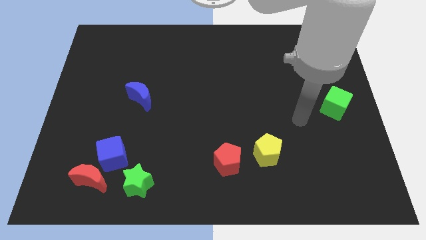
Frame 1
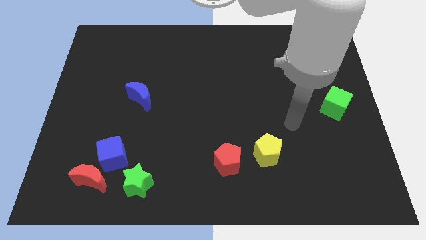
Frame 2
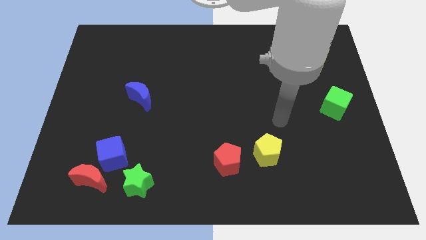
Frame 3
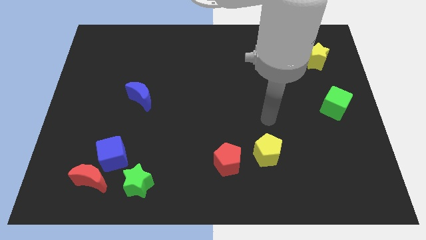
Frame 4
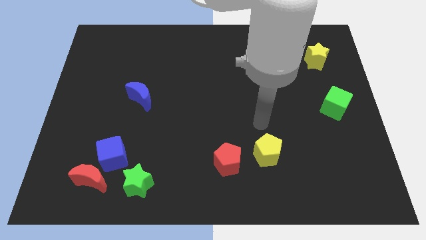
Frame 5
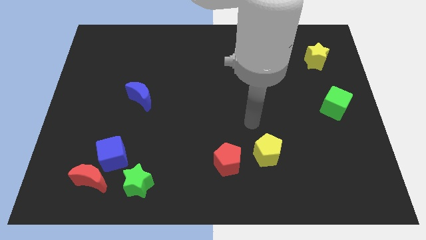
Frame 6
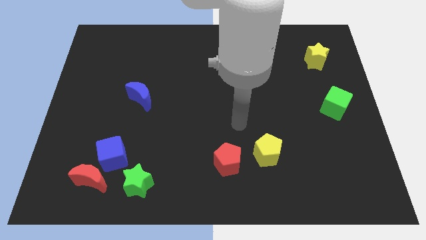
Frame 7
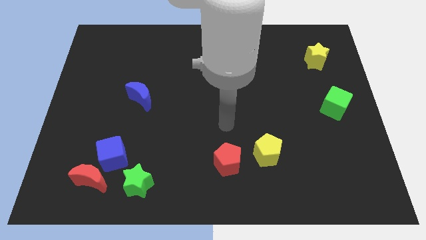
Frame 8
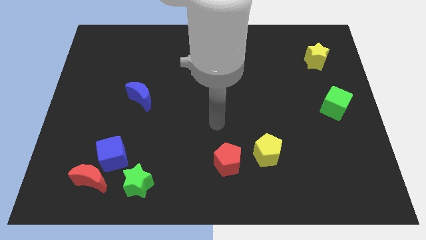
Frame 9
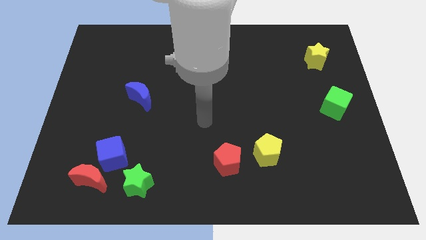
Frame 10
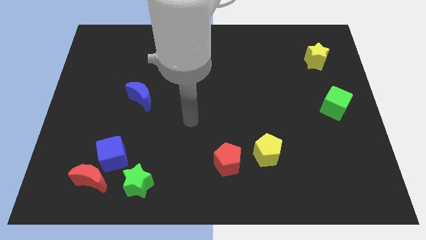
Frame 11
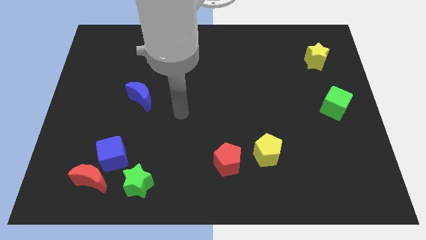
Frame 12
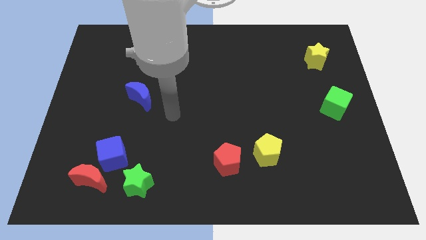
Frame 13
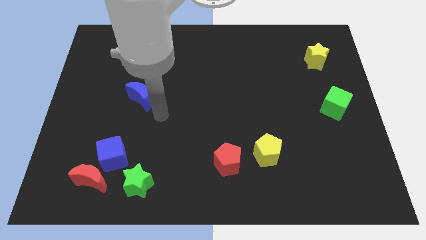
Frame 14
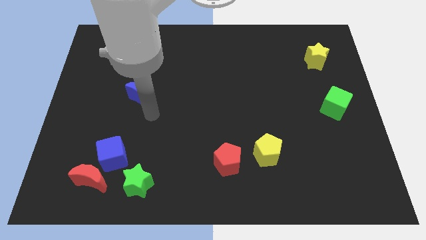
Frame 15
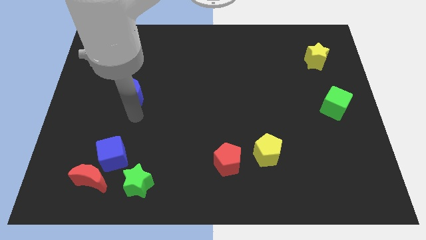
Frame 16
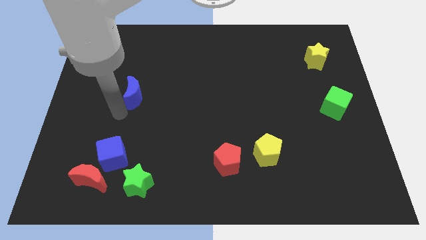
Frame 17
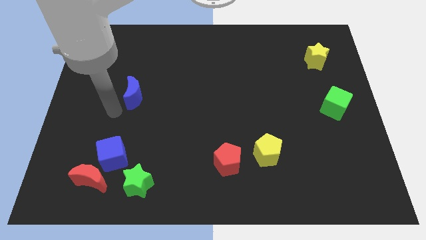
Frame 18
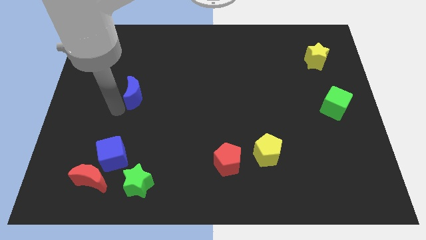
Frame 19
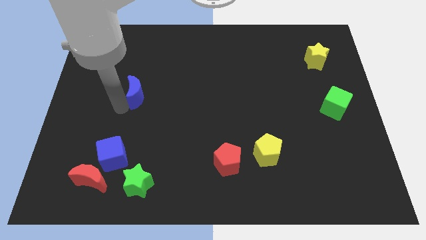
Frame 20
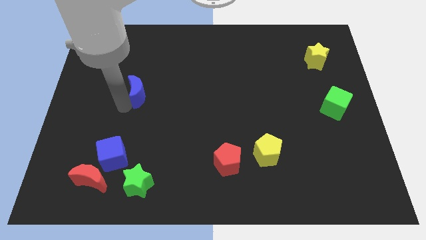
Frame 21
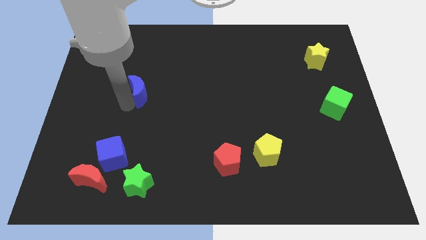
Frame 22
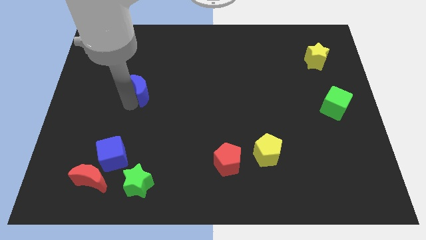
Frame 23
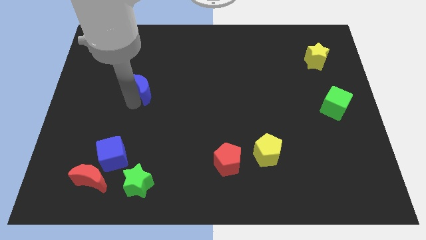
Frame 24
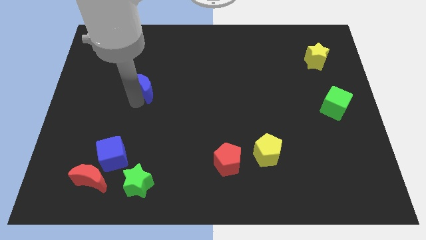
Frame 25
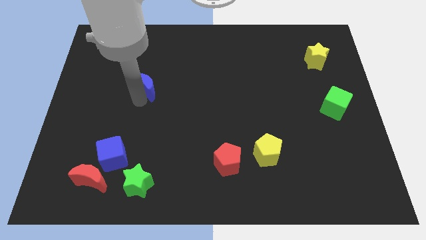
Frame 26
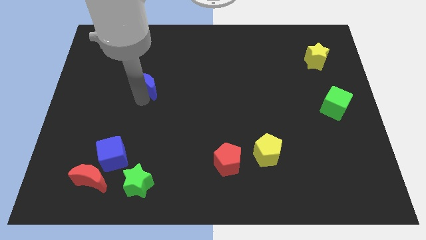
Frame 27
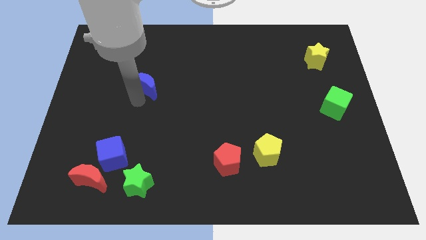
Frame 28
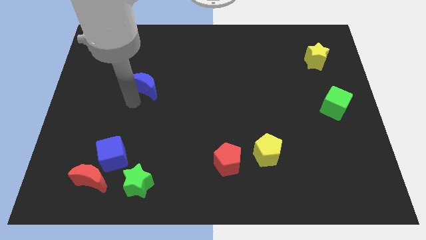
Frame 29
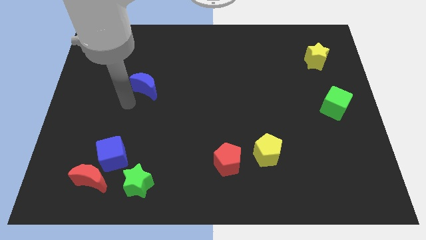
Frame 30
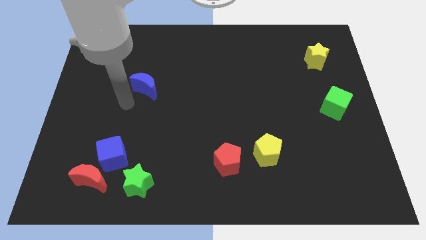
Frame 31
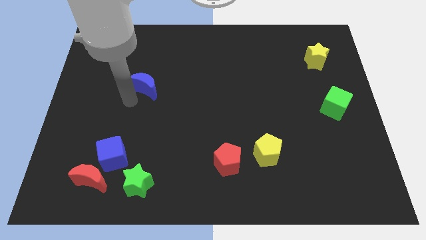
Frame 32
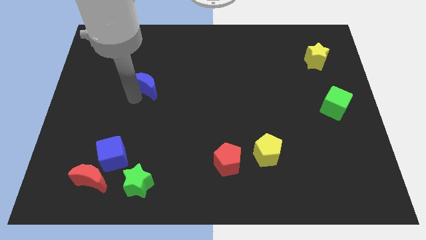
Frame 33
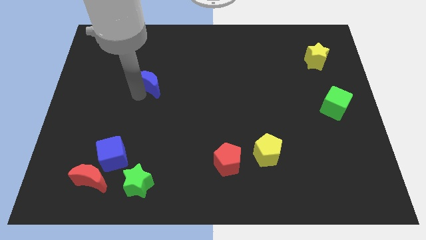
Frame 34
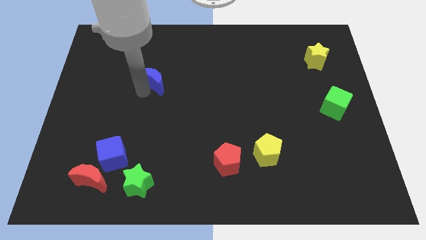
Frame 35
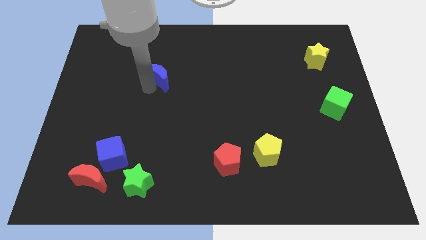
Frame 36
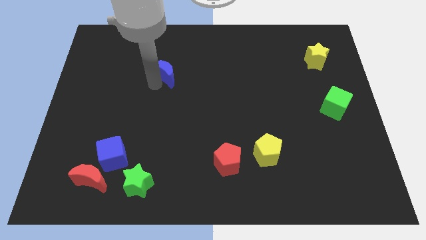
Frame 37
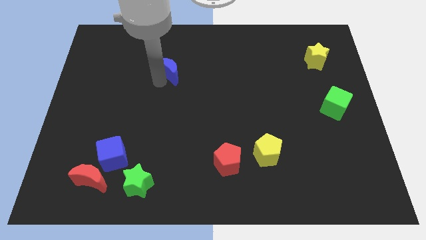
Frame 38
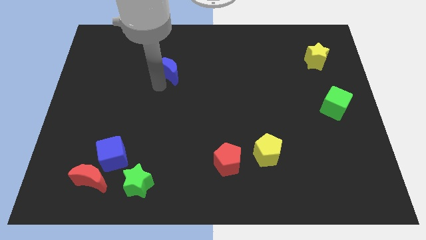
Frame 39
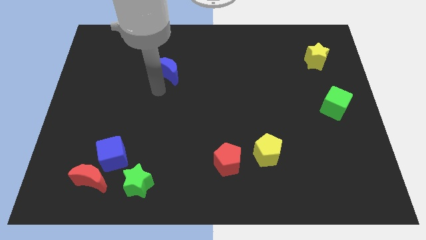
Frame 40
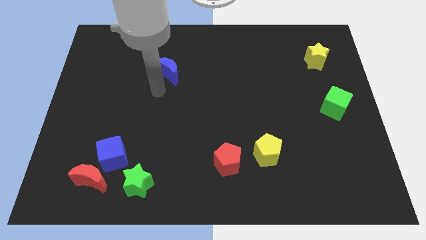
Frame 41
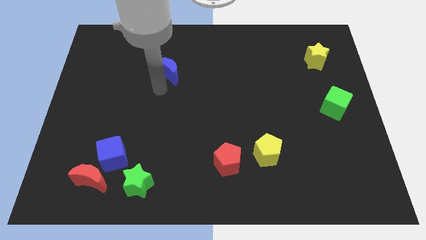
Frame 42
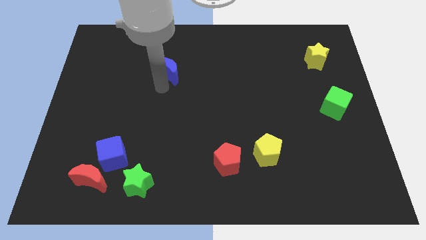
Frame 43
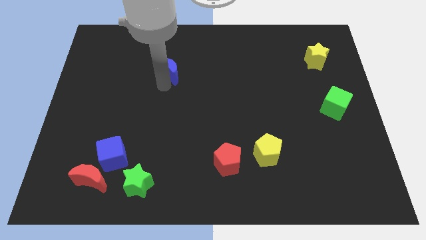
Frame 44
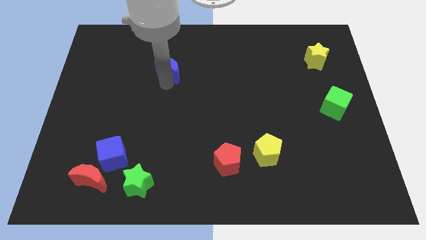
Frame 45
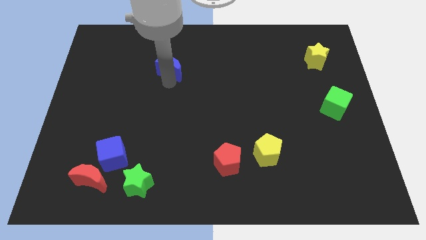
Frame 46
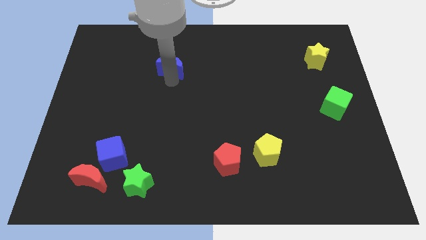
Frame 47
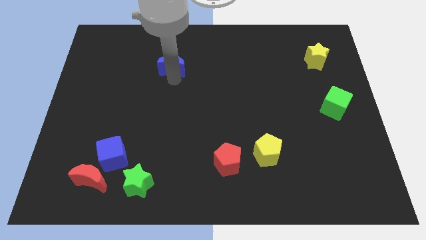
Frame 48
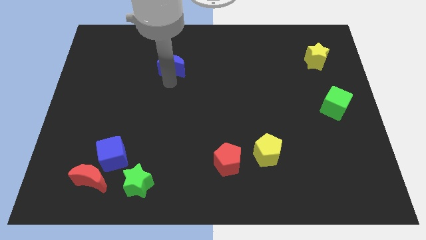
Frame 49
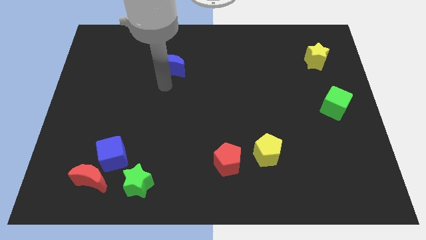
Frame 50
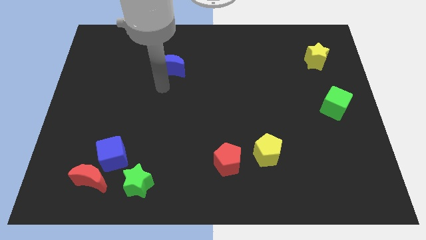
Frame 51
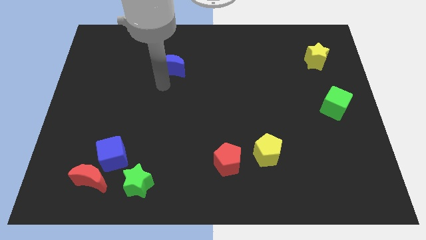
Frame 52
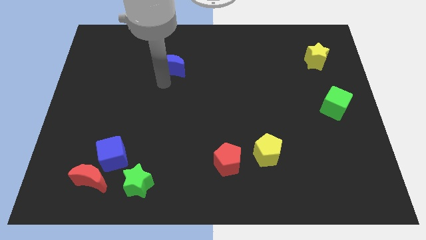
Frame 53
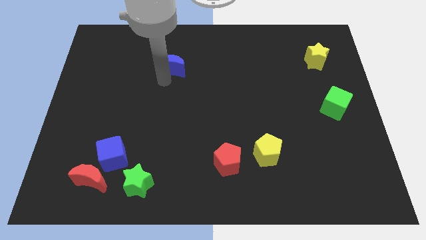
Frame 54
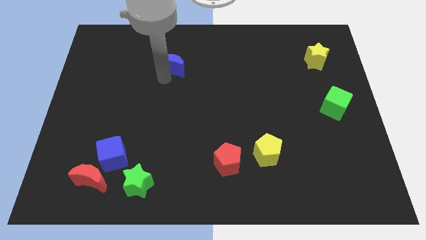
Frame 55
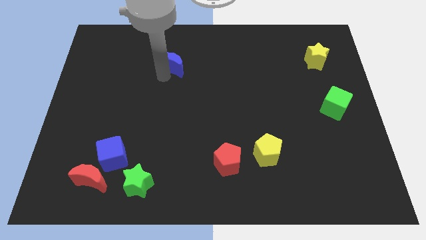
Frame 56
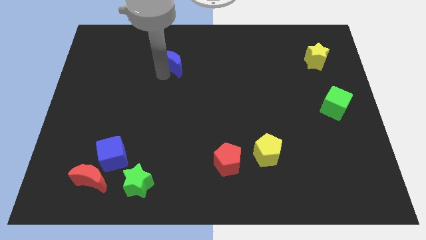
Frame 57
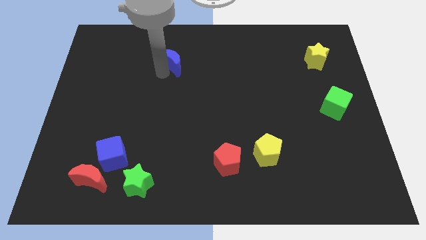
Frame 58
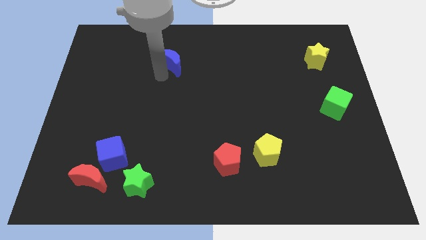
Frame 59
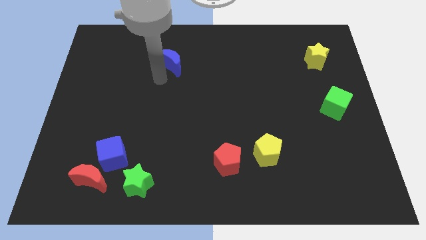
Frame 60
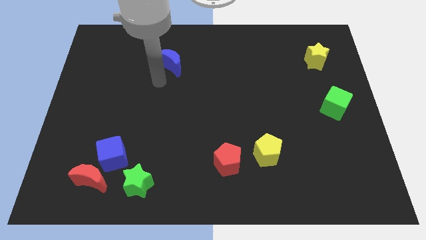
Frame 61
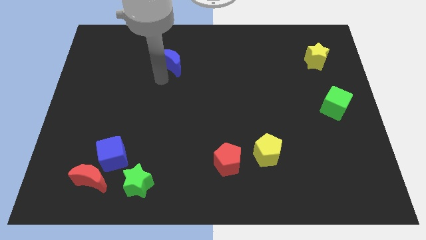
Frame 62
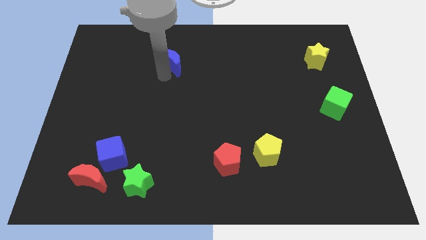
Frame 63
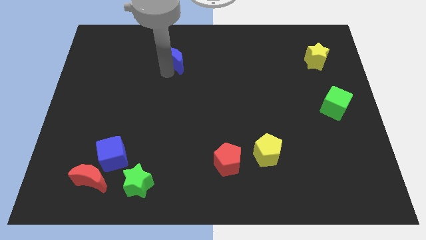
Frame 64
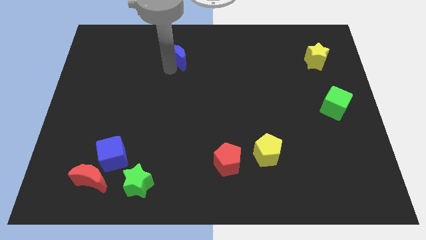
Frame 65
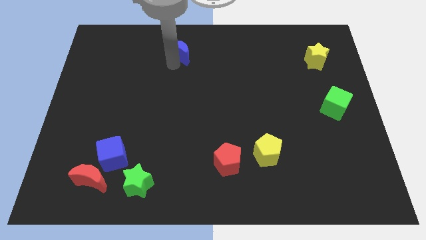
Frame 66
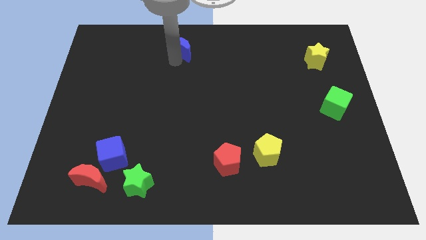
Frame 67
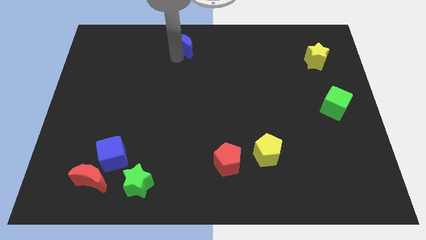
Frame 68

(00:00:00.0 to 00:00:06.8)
slide the blue moon to the towards your base

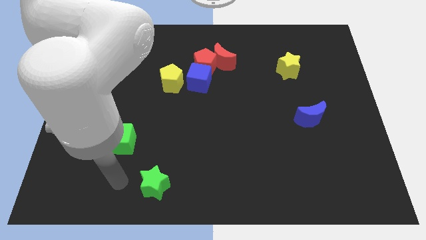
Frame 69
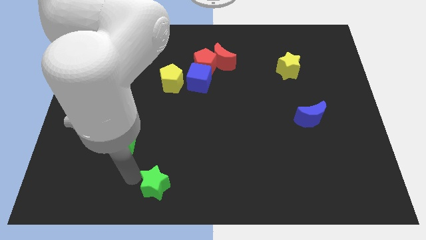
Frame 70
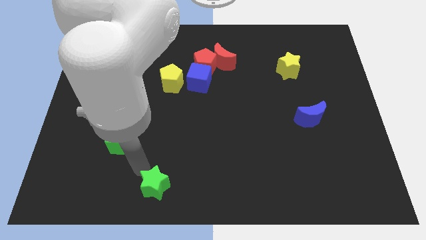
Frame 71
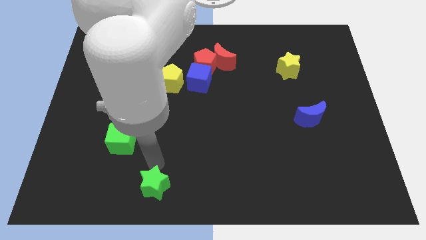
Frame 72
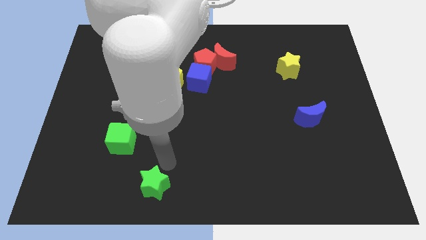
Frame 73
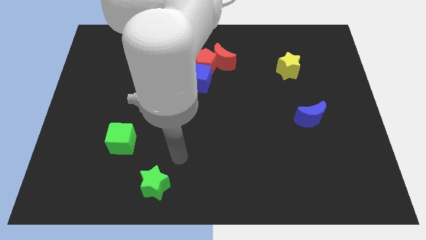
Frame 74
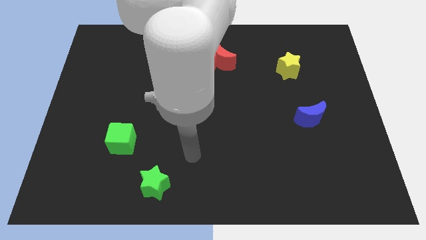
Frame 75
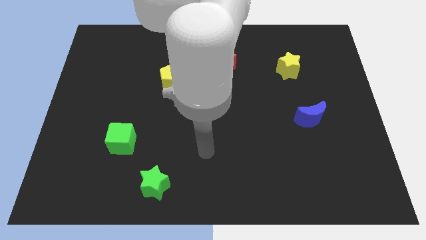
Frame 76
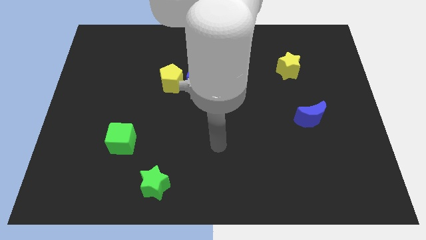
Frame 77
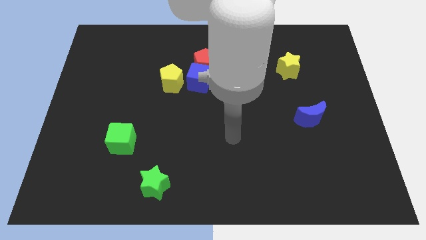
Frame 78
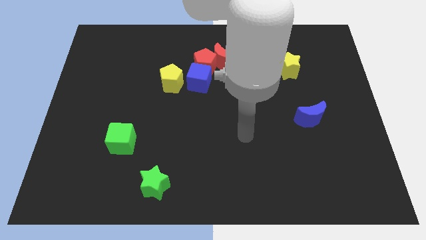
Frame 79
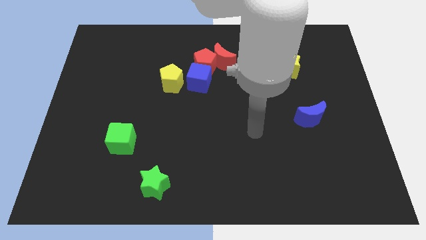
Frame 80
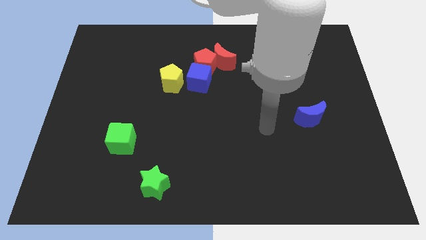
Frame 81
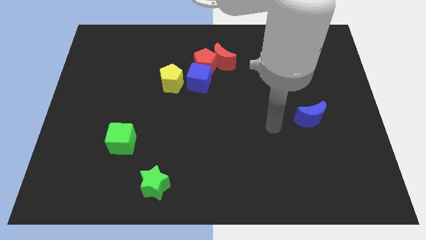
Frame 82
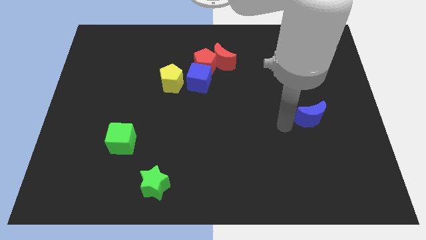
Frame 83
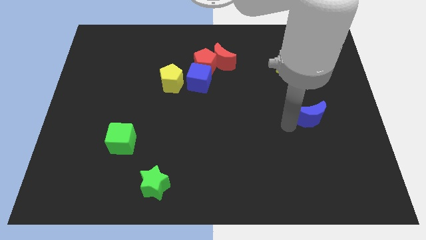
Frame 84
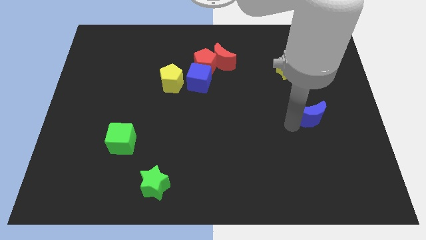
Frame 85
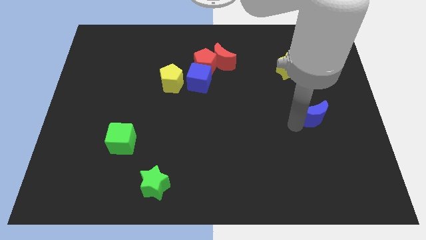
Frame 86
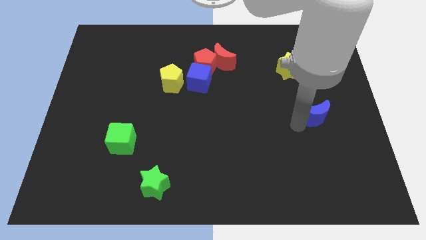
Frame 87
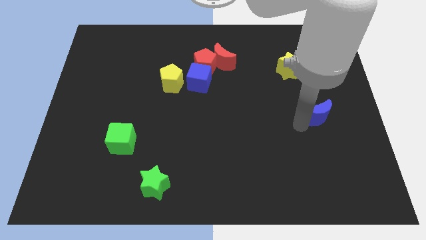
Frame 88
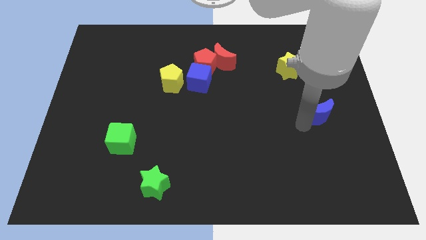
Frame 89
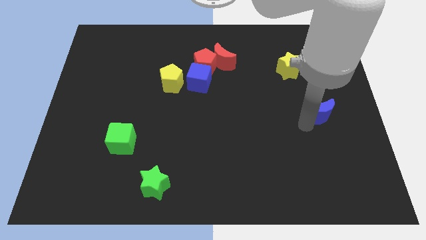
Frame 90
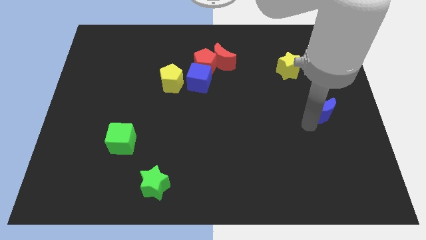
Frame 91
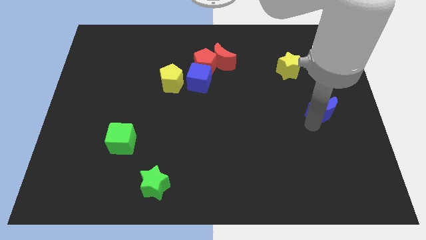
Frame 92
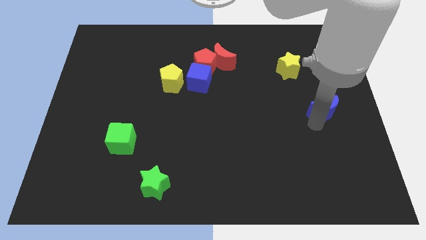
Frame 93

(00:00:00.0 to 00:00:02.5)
move the blue moon to the right side
